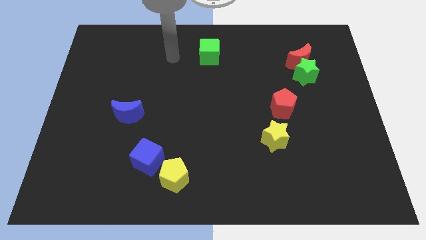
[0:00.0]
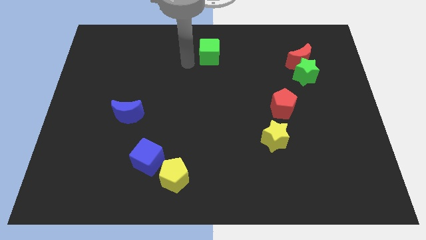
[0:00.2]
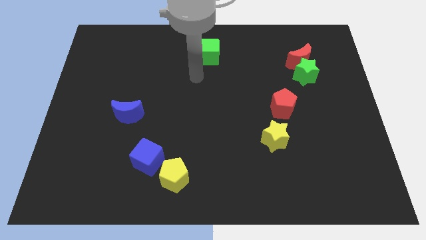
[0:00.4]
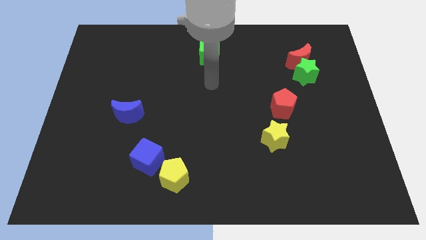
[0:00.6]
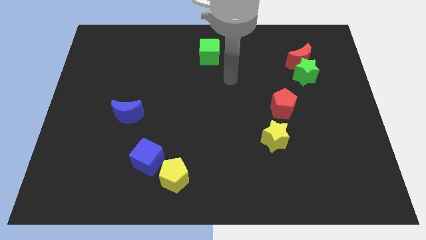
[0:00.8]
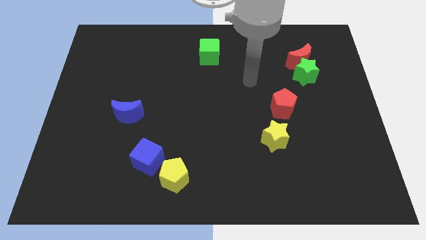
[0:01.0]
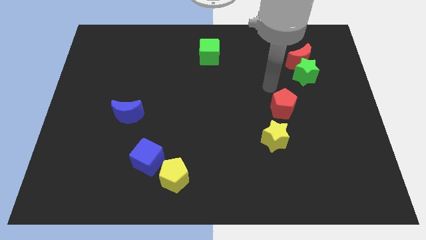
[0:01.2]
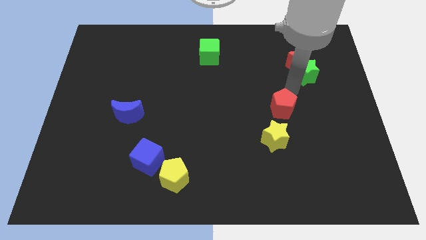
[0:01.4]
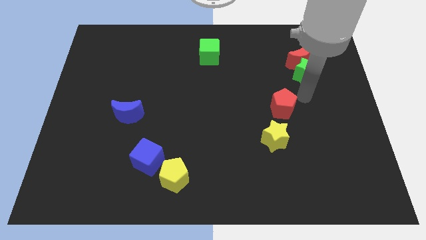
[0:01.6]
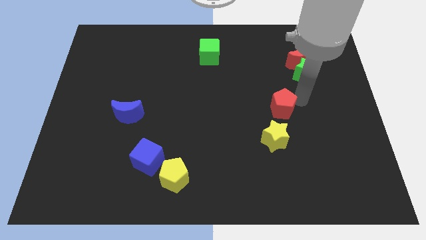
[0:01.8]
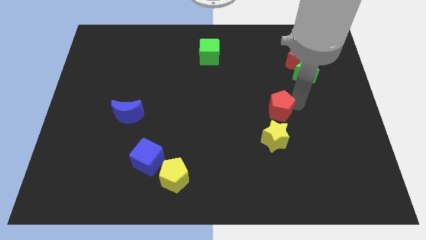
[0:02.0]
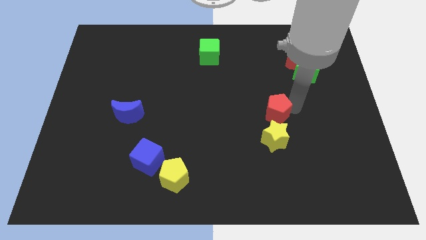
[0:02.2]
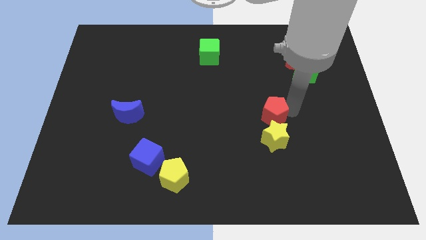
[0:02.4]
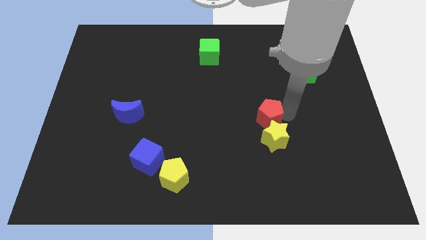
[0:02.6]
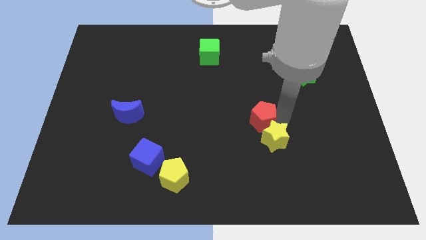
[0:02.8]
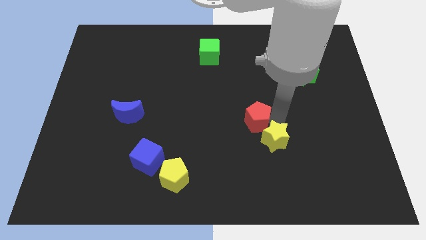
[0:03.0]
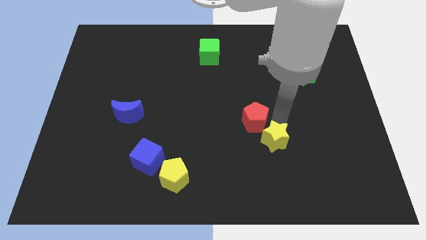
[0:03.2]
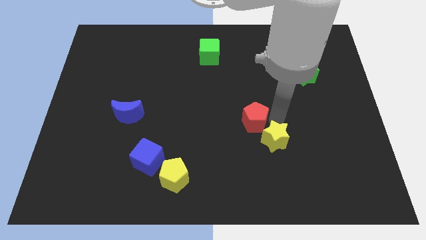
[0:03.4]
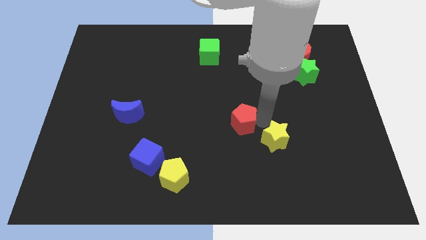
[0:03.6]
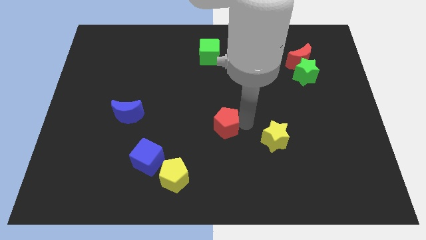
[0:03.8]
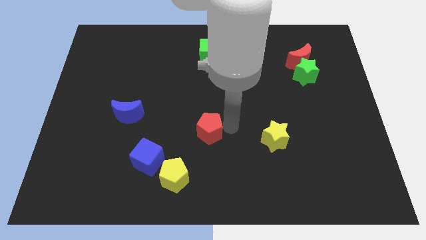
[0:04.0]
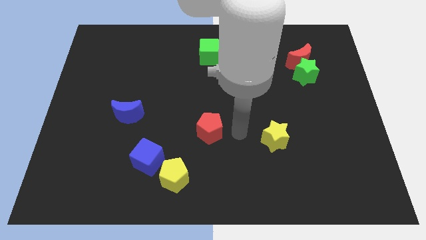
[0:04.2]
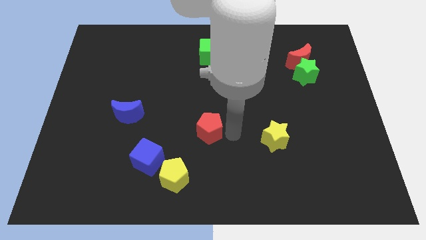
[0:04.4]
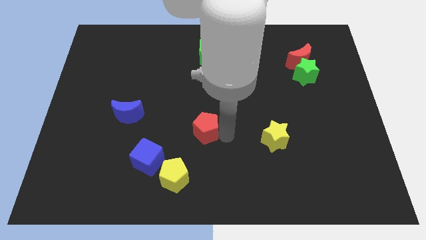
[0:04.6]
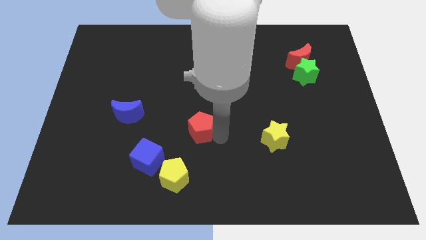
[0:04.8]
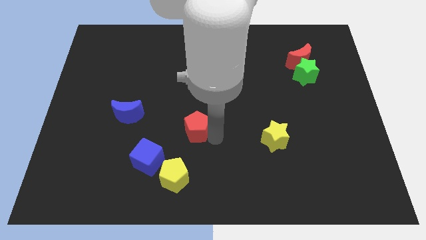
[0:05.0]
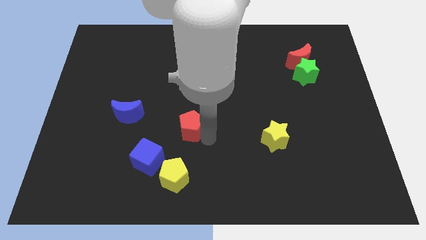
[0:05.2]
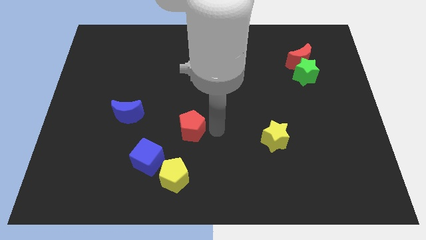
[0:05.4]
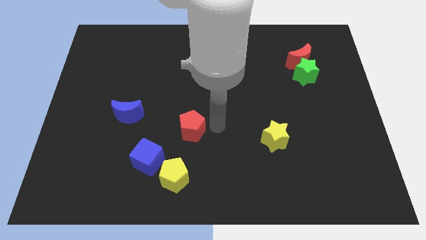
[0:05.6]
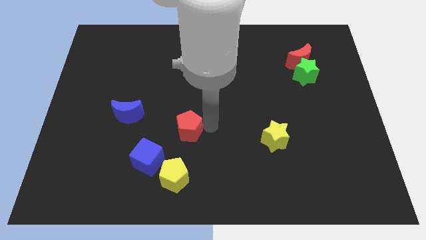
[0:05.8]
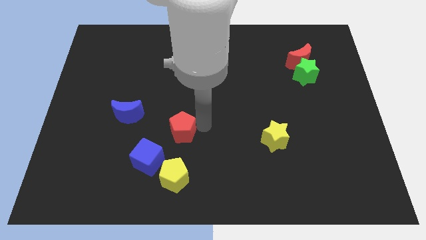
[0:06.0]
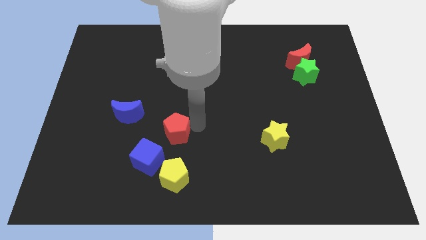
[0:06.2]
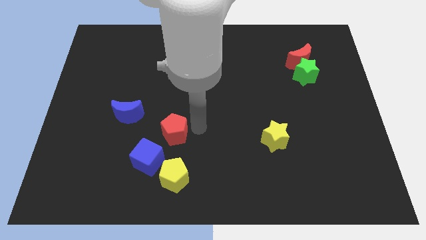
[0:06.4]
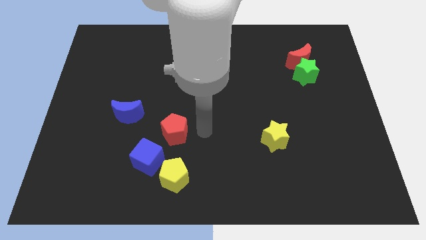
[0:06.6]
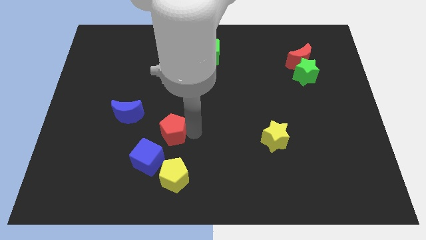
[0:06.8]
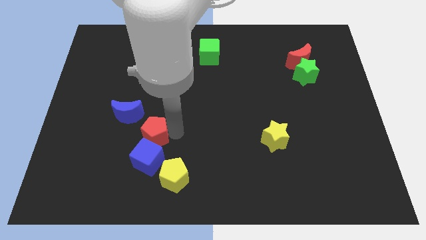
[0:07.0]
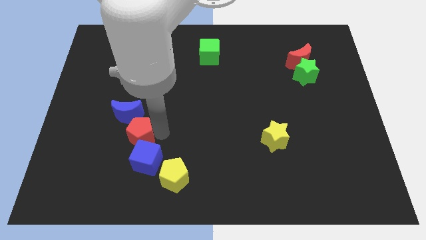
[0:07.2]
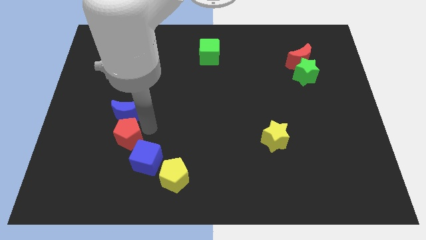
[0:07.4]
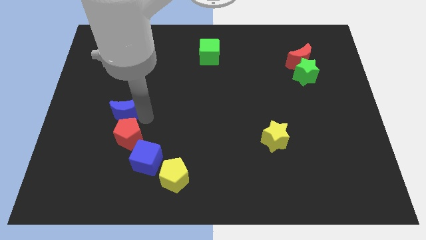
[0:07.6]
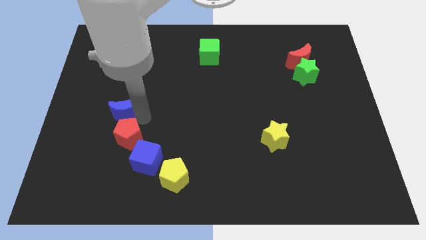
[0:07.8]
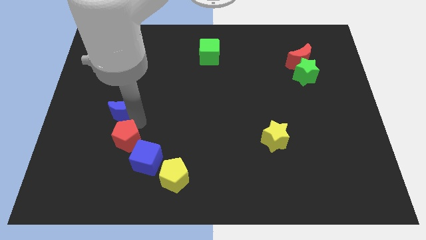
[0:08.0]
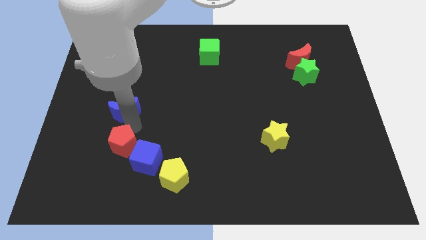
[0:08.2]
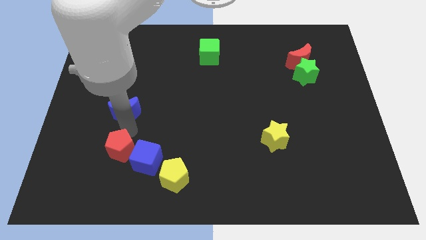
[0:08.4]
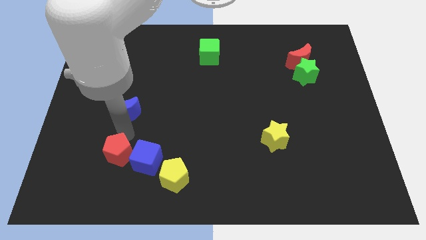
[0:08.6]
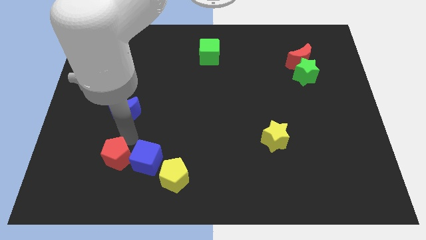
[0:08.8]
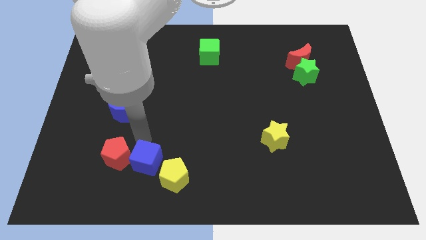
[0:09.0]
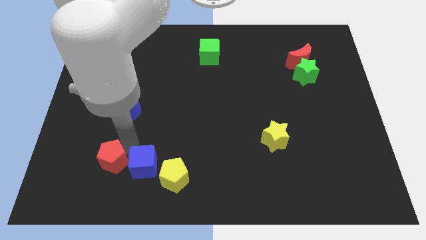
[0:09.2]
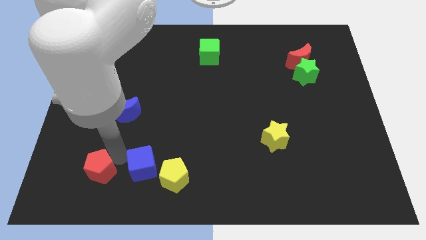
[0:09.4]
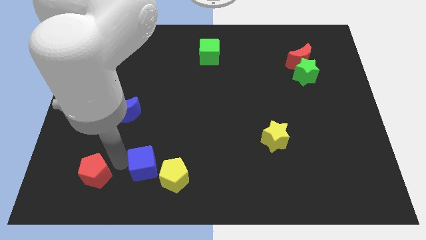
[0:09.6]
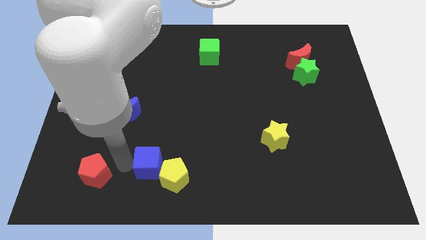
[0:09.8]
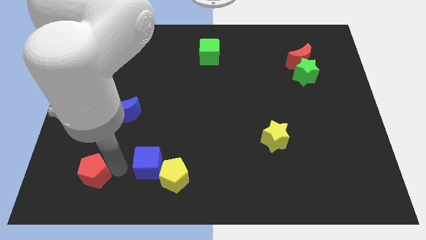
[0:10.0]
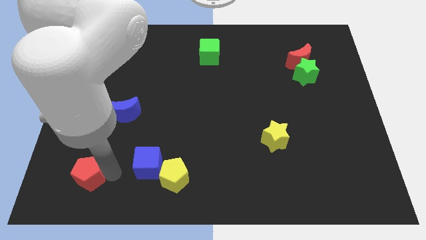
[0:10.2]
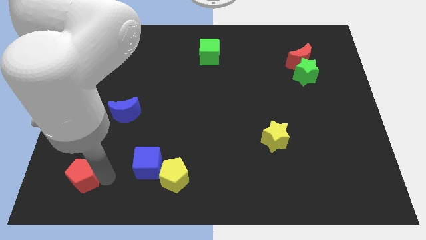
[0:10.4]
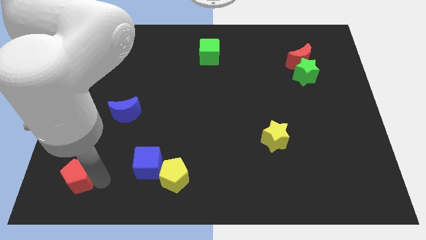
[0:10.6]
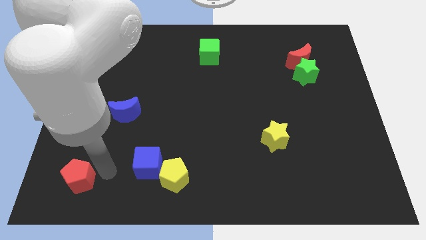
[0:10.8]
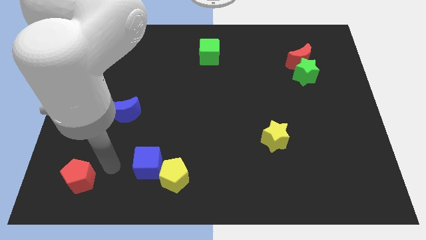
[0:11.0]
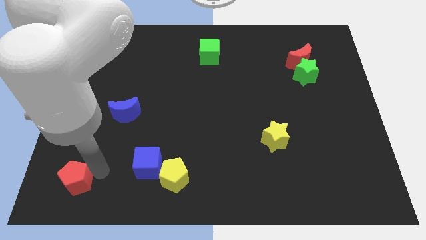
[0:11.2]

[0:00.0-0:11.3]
move the red pentagon to the bottom left of the board

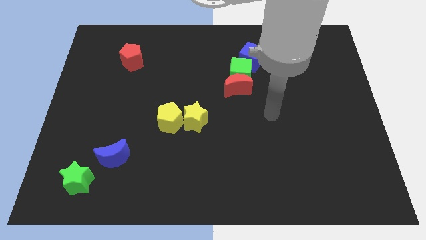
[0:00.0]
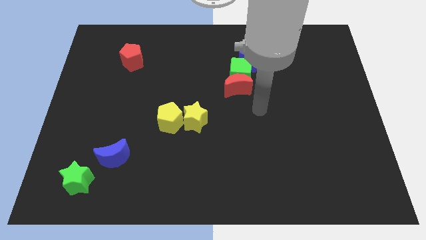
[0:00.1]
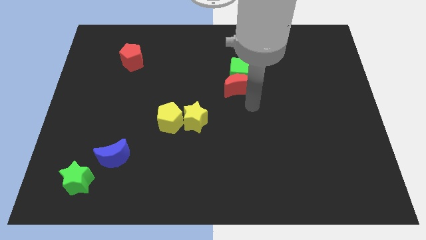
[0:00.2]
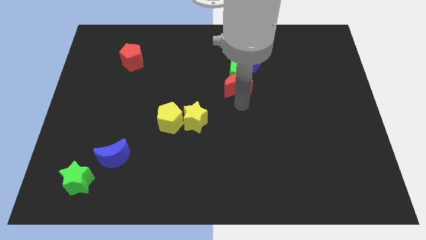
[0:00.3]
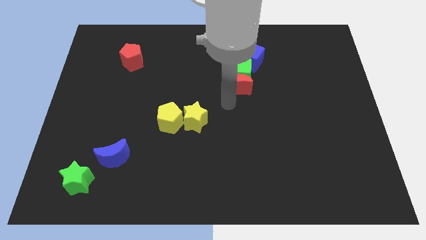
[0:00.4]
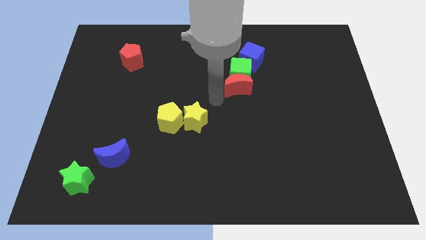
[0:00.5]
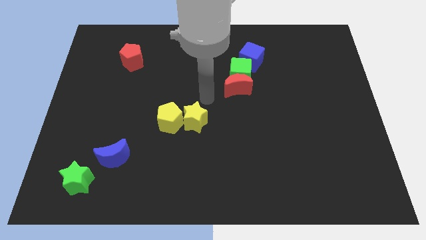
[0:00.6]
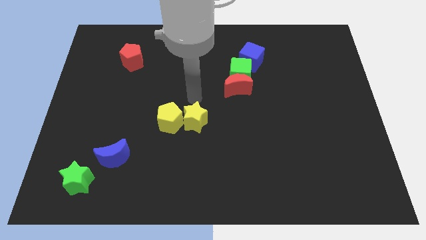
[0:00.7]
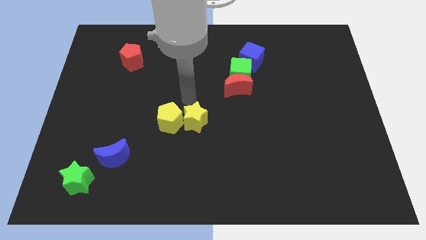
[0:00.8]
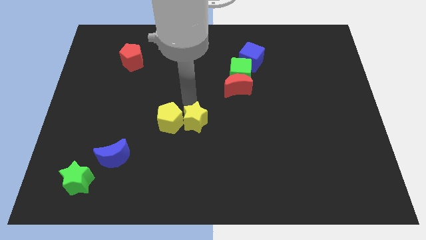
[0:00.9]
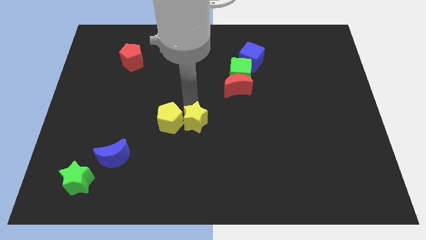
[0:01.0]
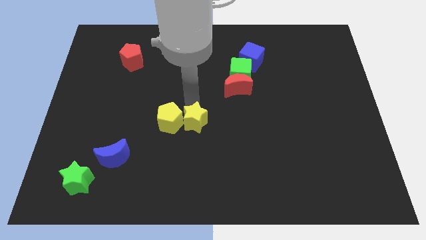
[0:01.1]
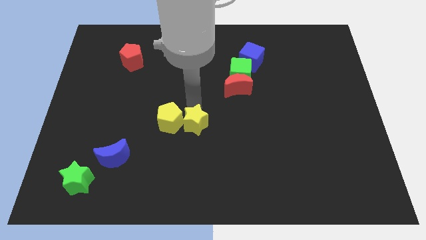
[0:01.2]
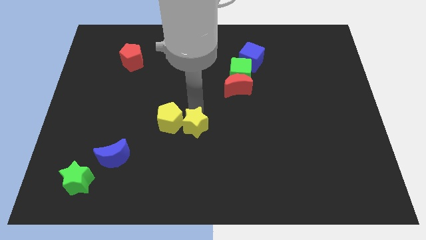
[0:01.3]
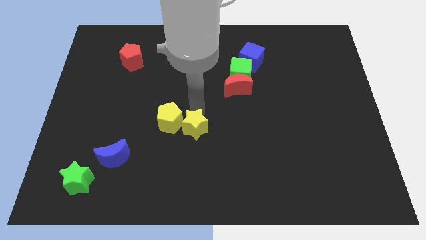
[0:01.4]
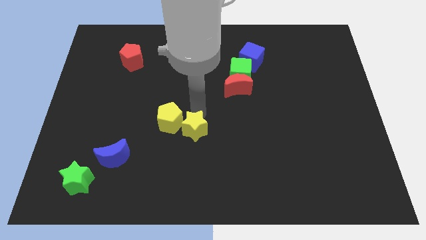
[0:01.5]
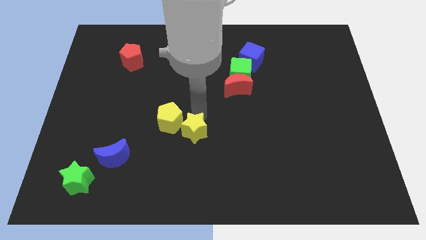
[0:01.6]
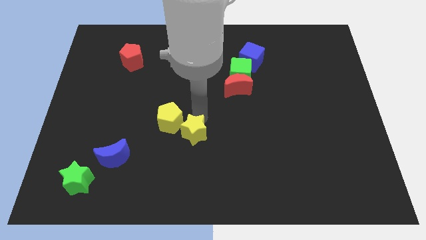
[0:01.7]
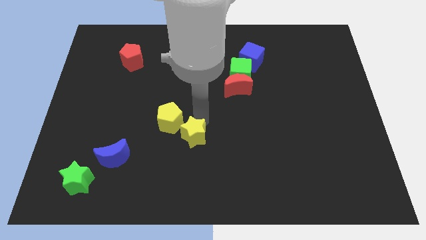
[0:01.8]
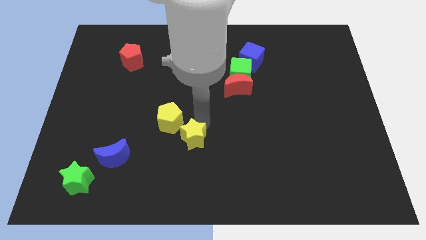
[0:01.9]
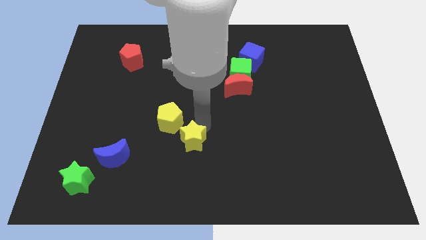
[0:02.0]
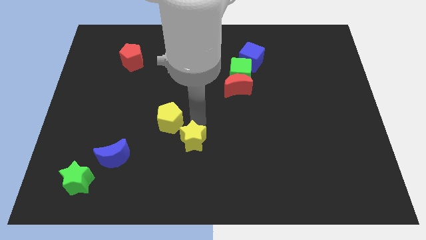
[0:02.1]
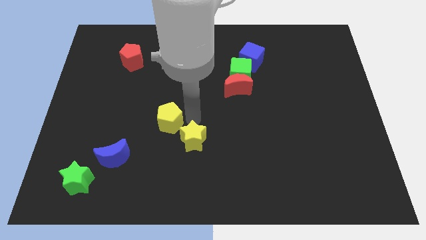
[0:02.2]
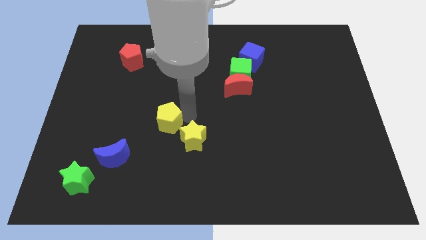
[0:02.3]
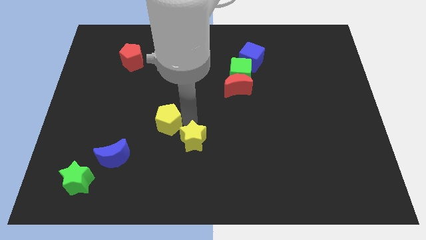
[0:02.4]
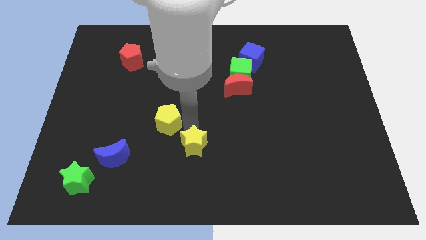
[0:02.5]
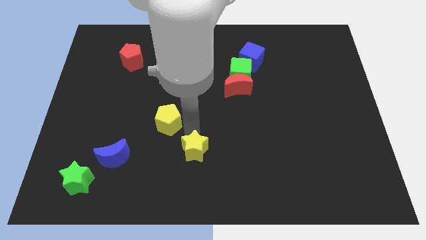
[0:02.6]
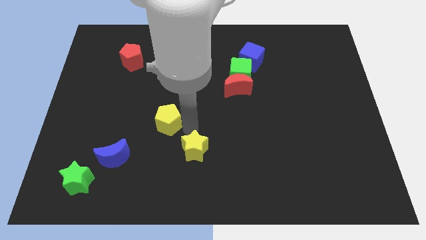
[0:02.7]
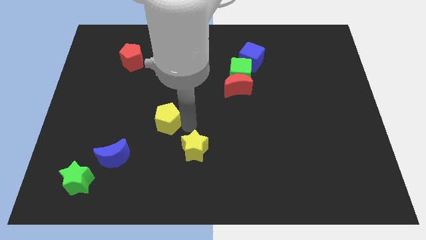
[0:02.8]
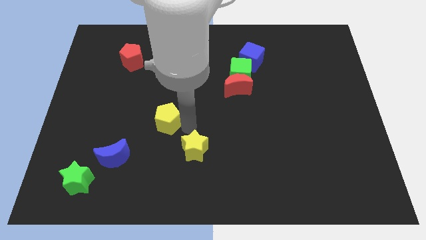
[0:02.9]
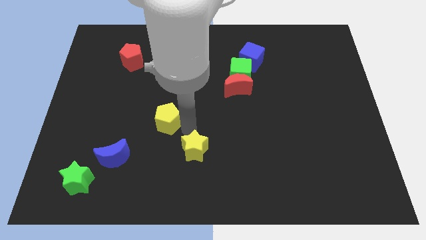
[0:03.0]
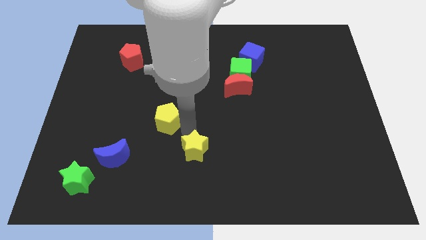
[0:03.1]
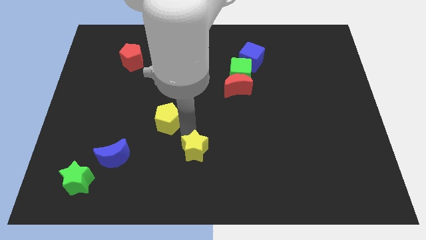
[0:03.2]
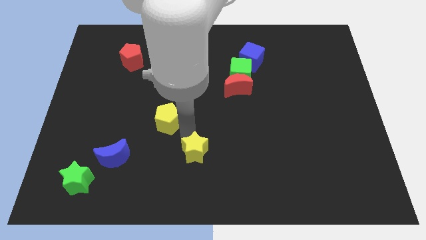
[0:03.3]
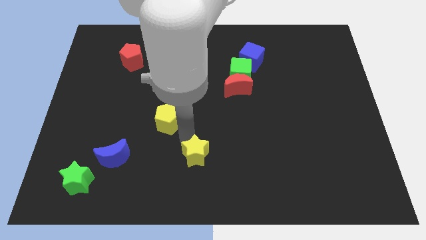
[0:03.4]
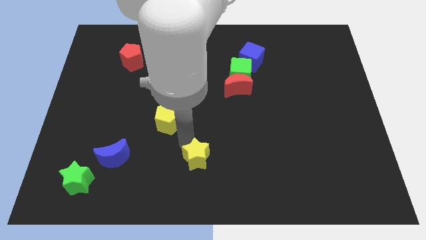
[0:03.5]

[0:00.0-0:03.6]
put the yellow star to the bottom side
